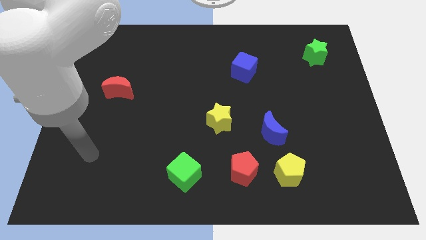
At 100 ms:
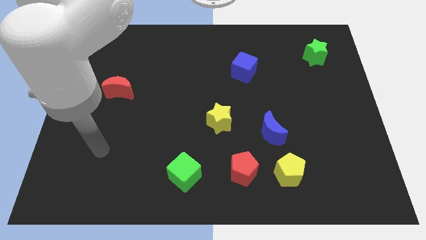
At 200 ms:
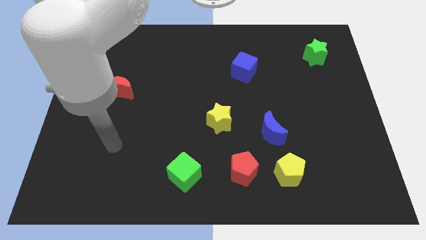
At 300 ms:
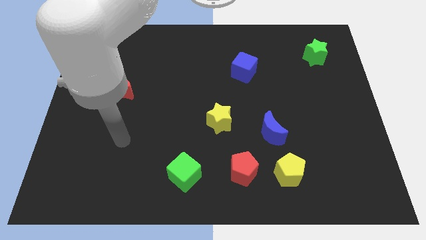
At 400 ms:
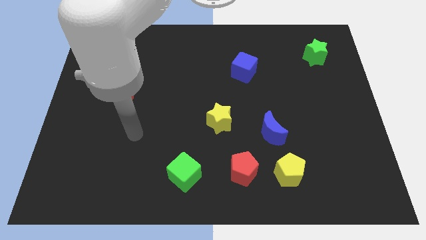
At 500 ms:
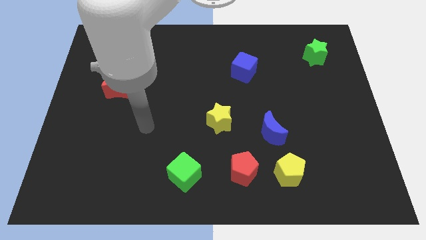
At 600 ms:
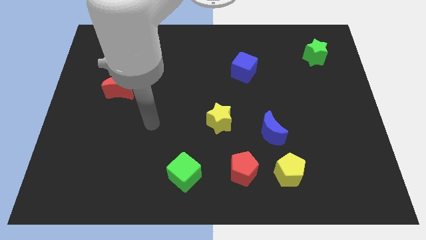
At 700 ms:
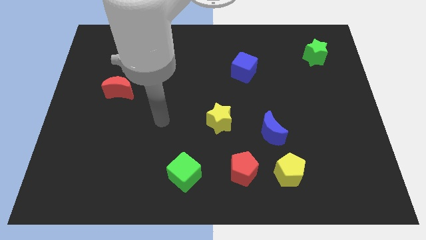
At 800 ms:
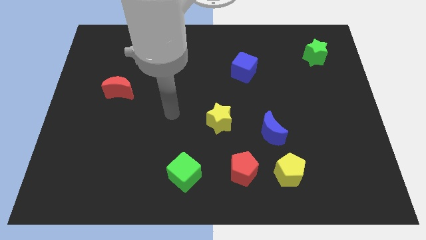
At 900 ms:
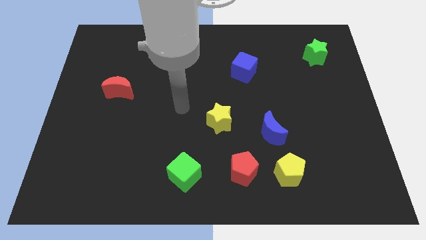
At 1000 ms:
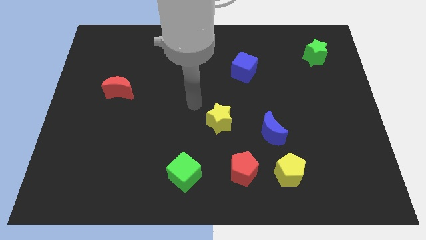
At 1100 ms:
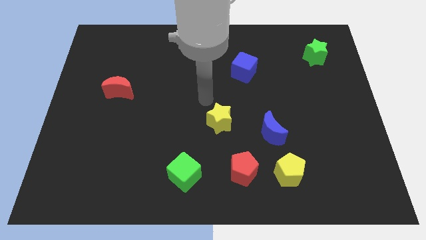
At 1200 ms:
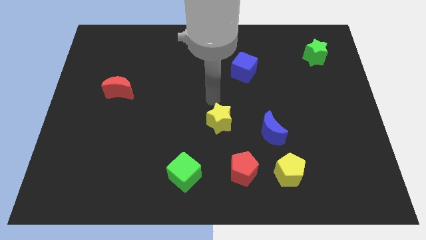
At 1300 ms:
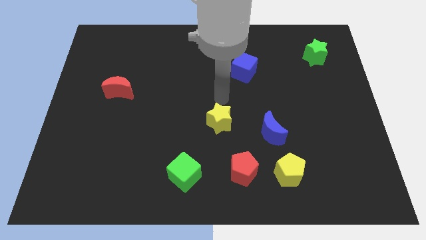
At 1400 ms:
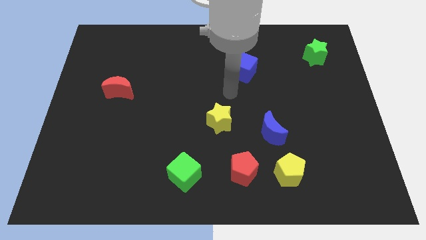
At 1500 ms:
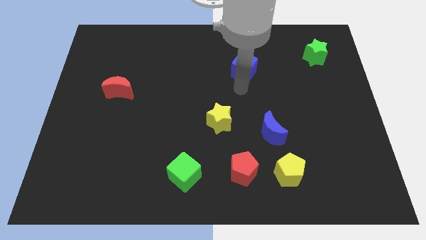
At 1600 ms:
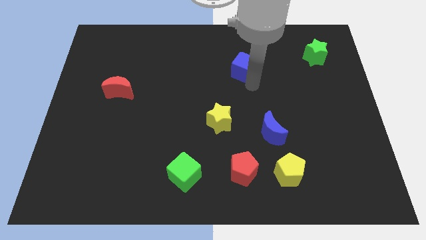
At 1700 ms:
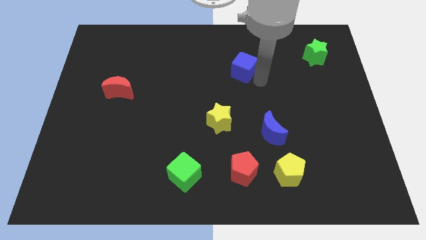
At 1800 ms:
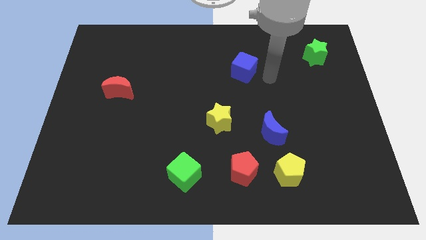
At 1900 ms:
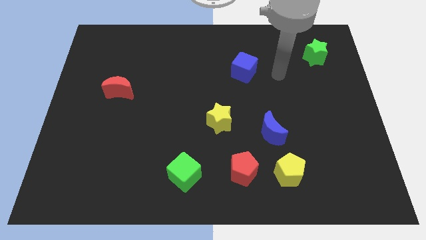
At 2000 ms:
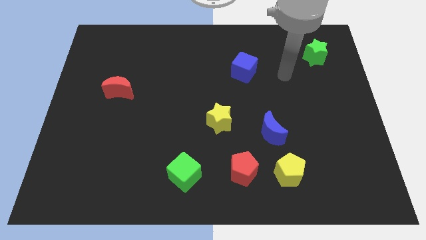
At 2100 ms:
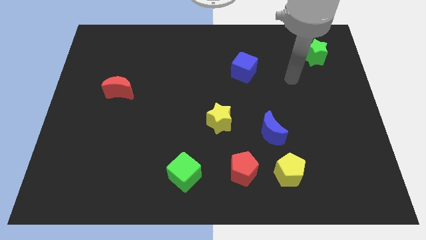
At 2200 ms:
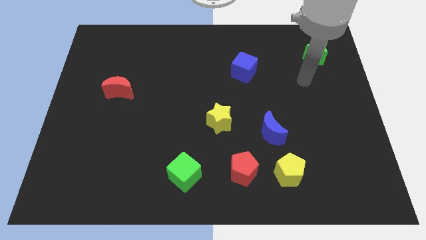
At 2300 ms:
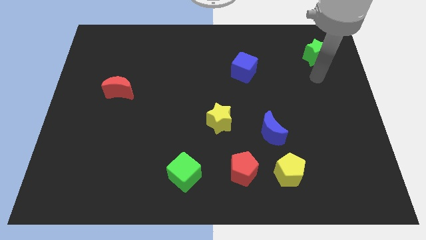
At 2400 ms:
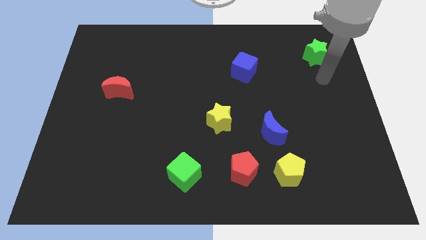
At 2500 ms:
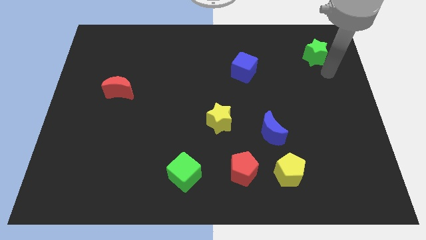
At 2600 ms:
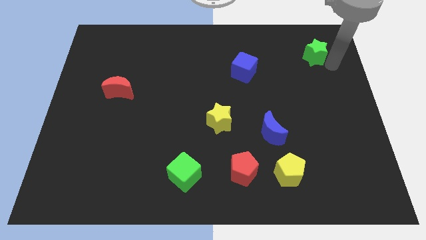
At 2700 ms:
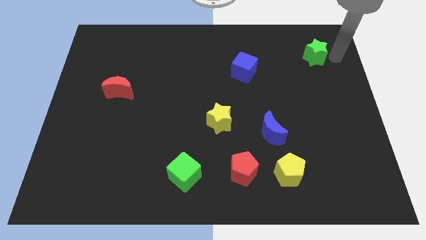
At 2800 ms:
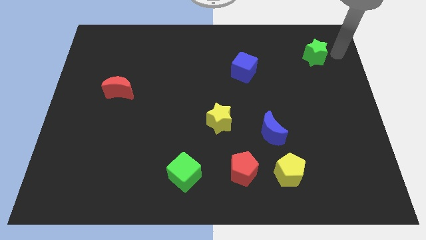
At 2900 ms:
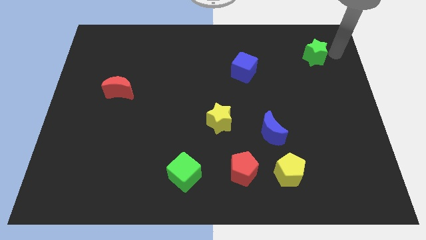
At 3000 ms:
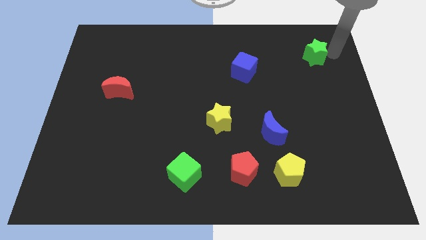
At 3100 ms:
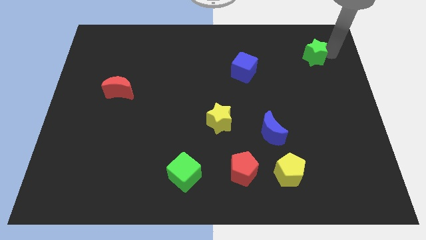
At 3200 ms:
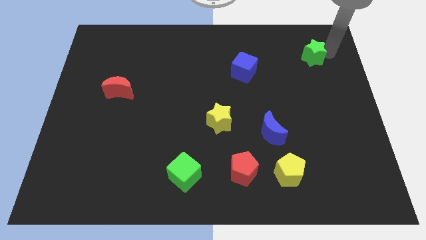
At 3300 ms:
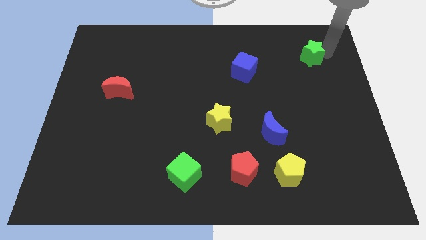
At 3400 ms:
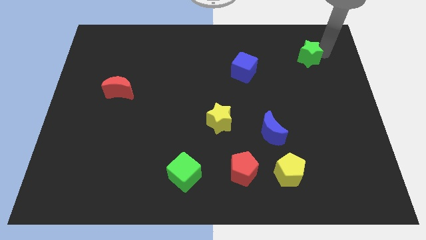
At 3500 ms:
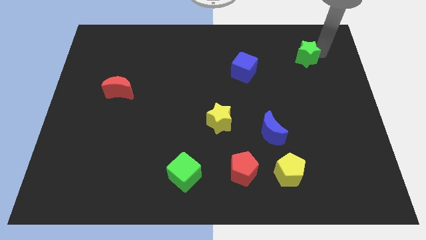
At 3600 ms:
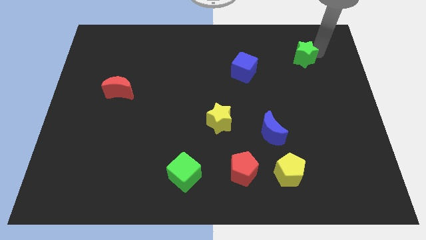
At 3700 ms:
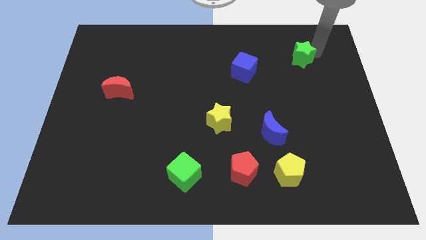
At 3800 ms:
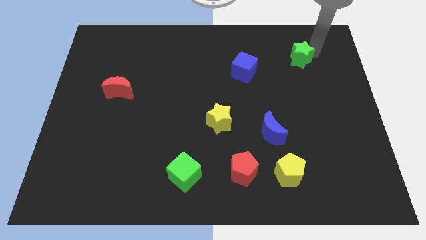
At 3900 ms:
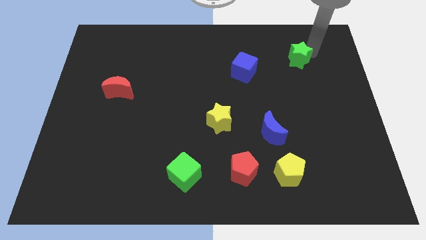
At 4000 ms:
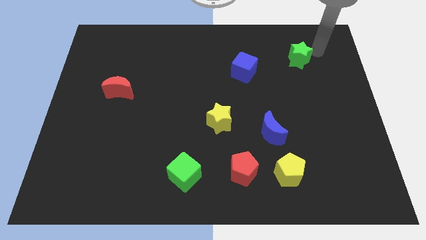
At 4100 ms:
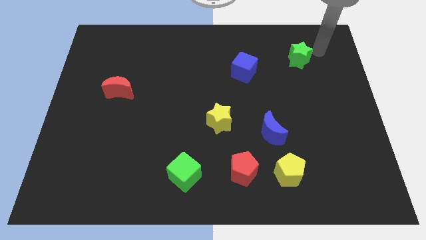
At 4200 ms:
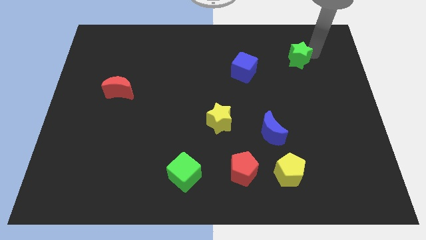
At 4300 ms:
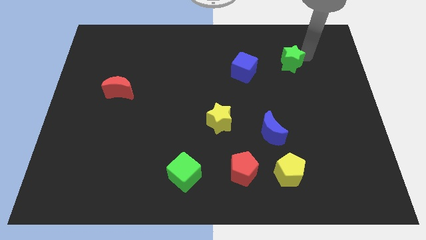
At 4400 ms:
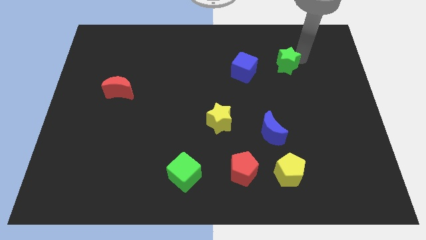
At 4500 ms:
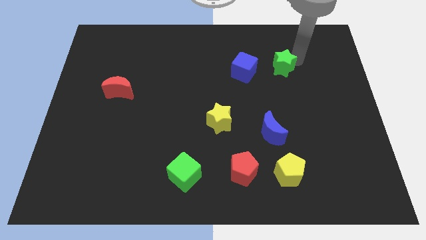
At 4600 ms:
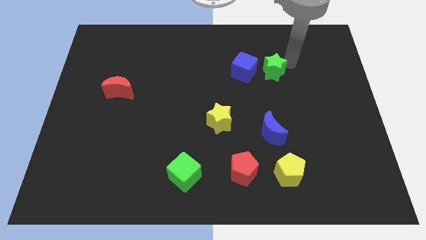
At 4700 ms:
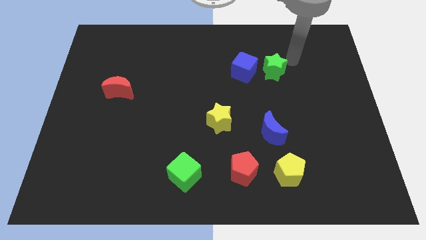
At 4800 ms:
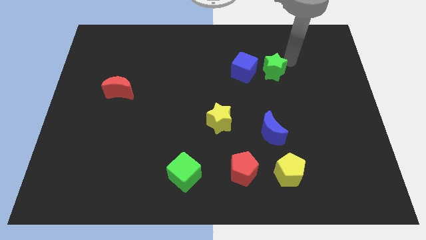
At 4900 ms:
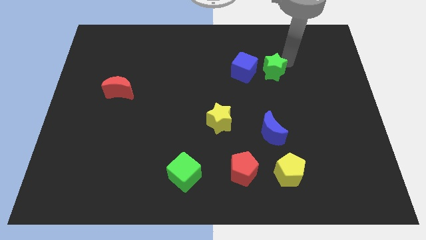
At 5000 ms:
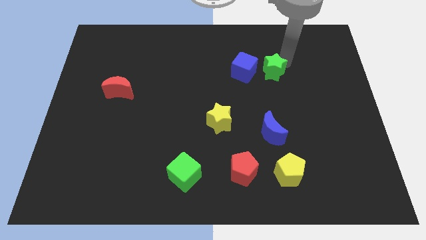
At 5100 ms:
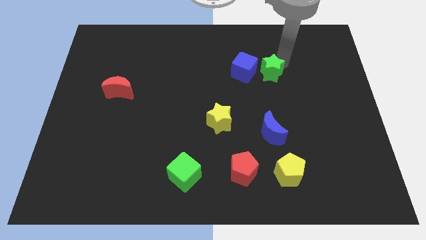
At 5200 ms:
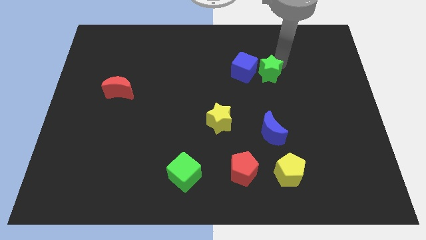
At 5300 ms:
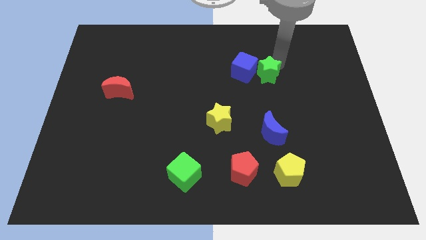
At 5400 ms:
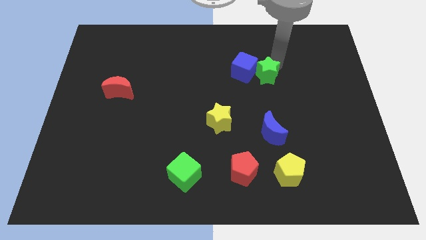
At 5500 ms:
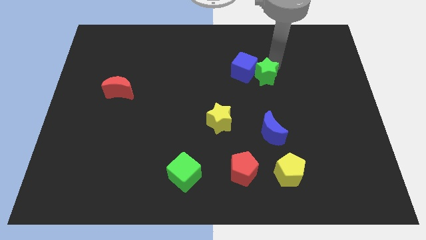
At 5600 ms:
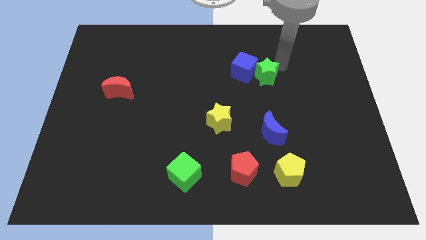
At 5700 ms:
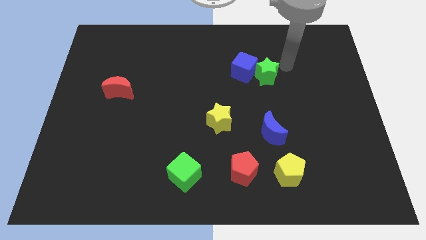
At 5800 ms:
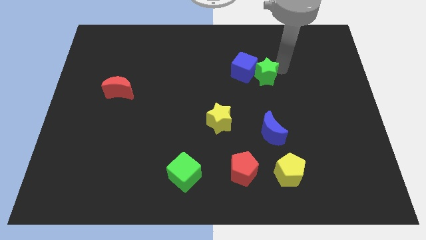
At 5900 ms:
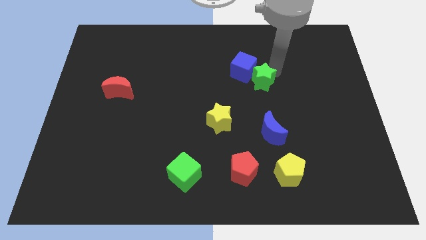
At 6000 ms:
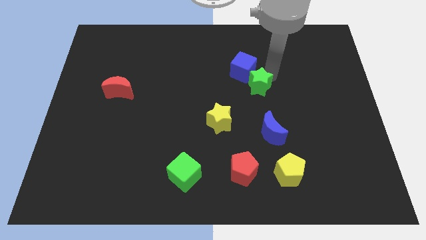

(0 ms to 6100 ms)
put the green star to the center of the board

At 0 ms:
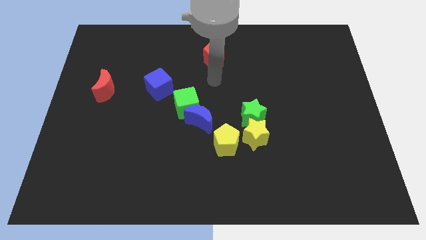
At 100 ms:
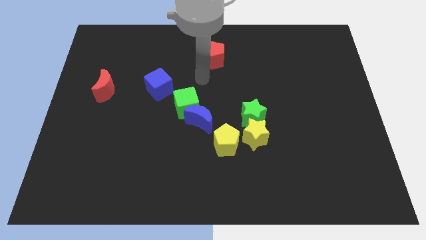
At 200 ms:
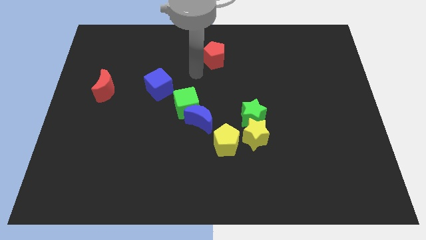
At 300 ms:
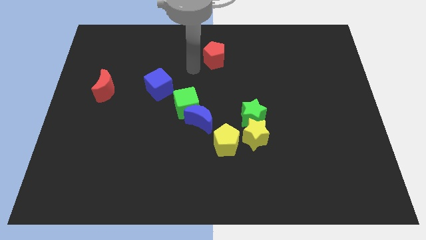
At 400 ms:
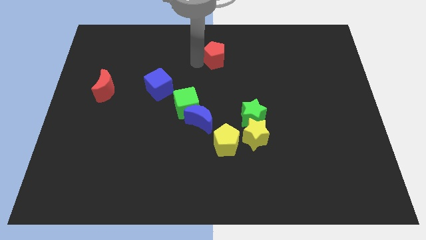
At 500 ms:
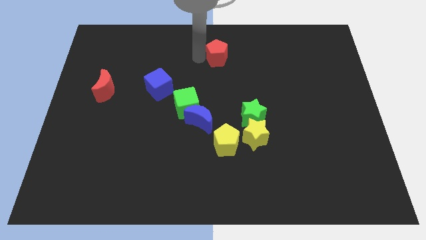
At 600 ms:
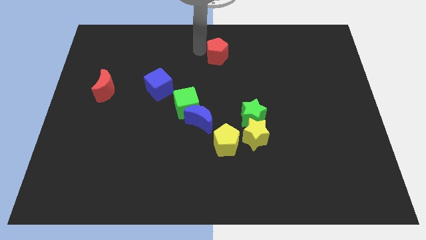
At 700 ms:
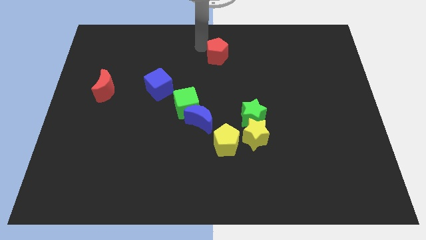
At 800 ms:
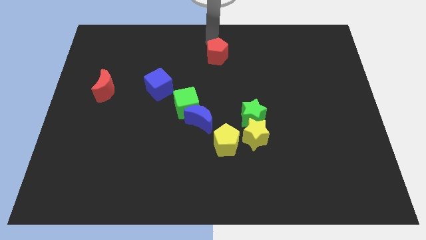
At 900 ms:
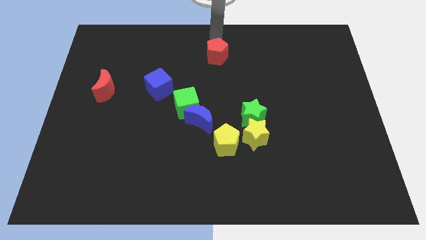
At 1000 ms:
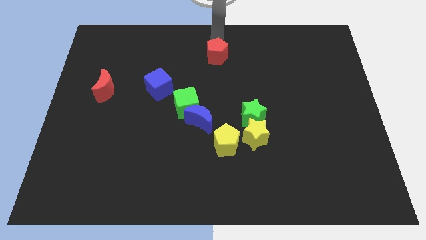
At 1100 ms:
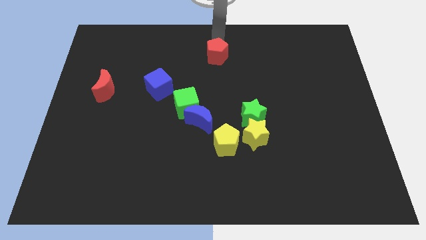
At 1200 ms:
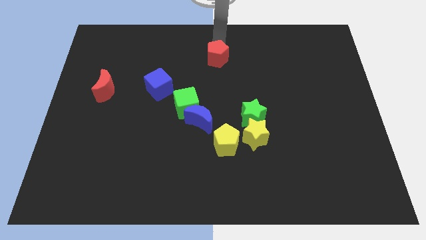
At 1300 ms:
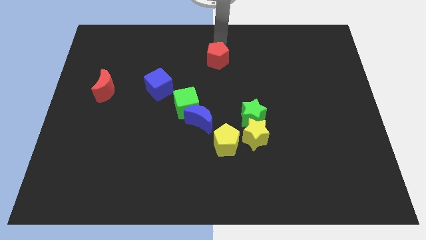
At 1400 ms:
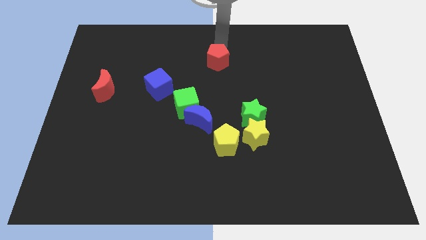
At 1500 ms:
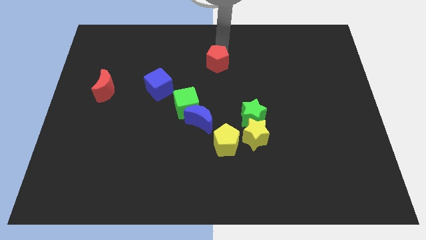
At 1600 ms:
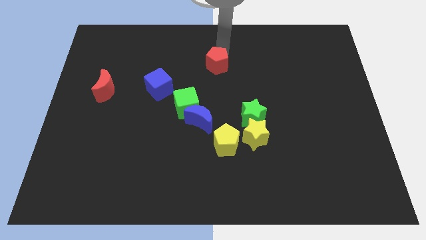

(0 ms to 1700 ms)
put the red pentagon to the middle
